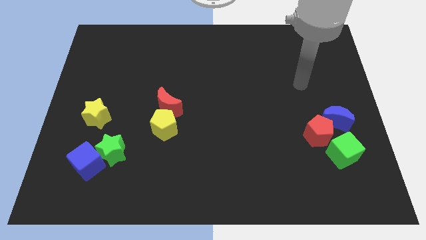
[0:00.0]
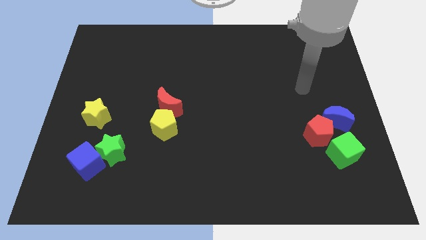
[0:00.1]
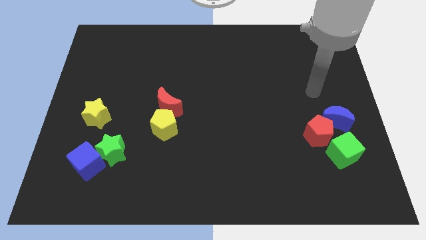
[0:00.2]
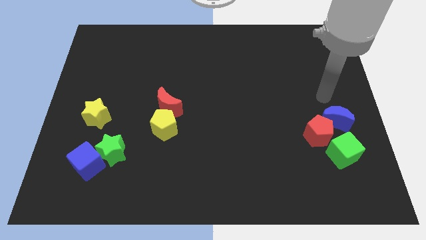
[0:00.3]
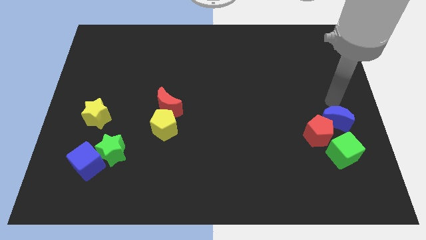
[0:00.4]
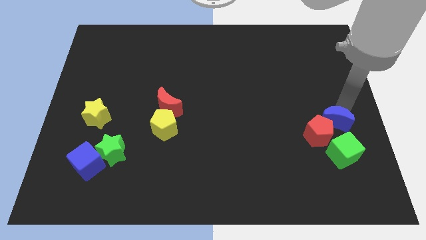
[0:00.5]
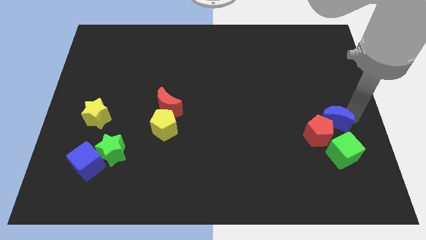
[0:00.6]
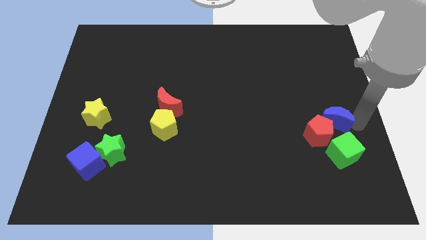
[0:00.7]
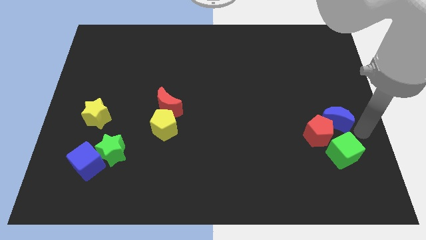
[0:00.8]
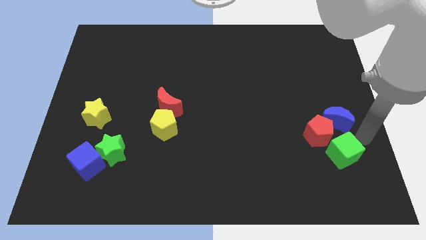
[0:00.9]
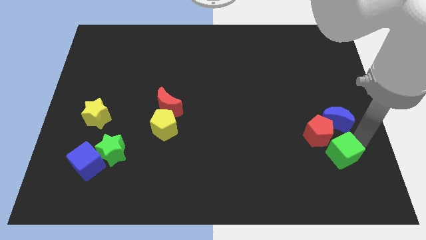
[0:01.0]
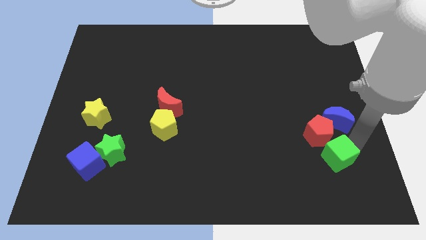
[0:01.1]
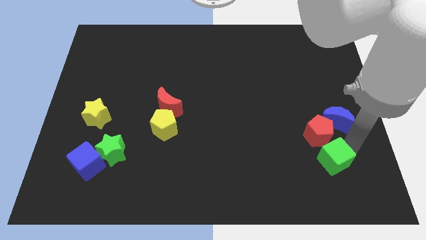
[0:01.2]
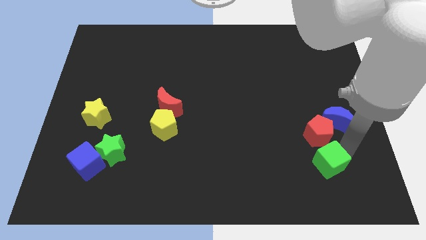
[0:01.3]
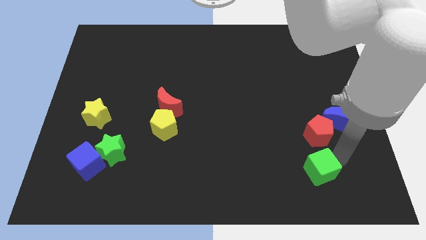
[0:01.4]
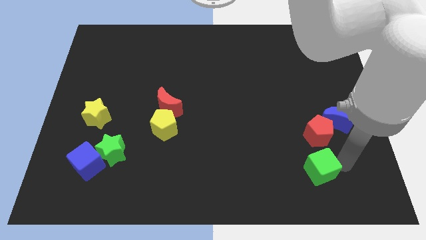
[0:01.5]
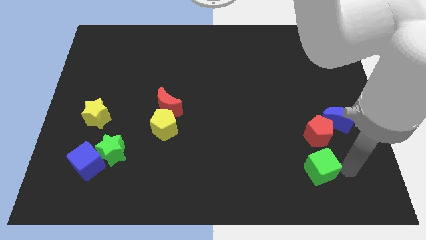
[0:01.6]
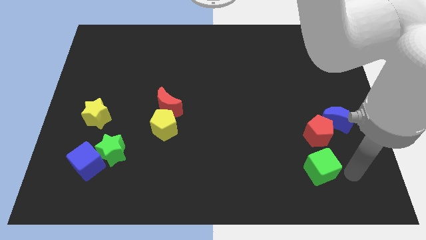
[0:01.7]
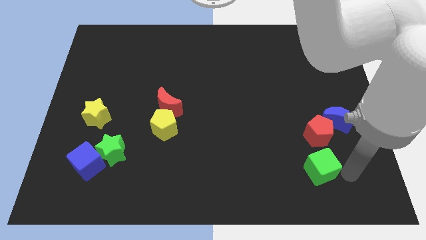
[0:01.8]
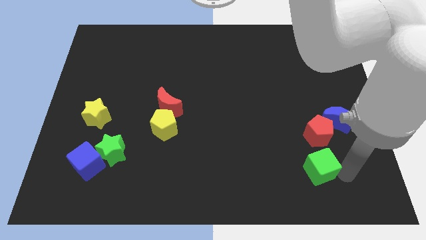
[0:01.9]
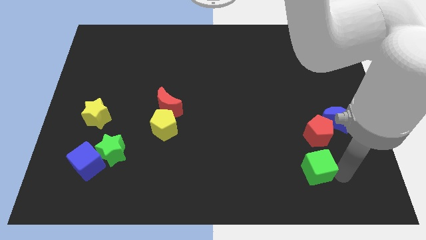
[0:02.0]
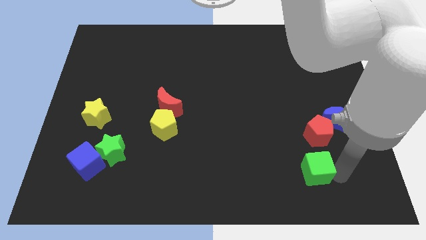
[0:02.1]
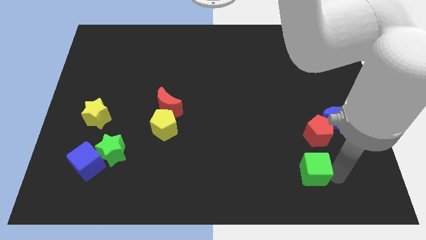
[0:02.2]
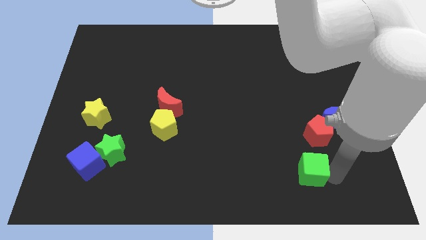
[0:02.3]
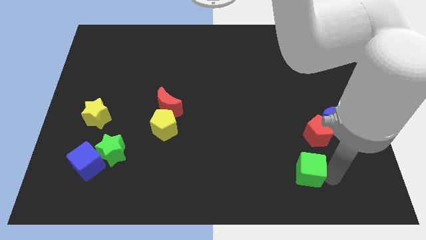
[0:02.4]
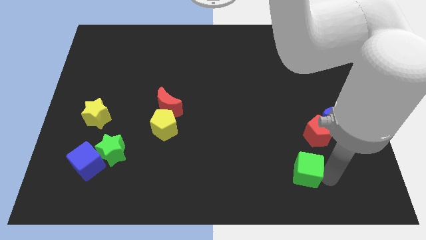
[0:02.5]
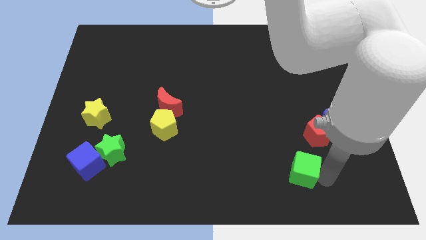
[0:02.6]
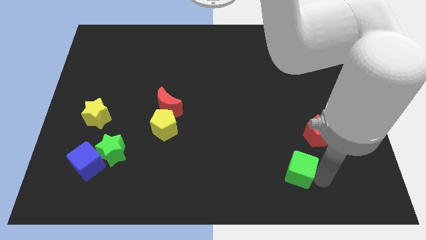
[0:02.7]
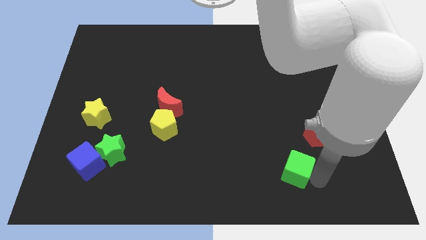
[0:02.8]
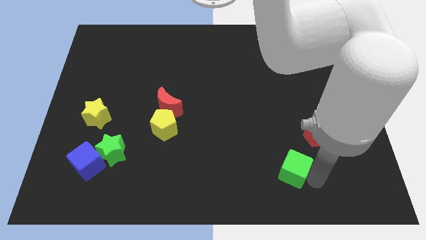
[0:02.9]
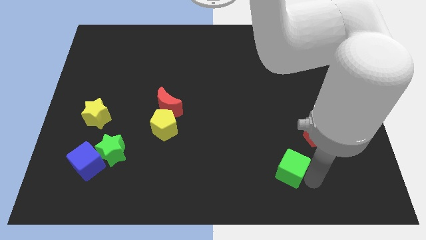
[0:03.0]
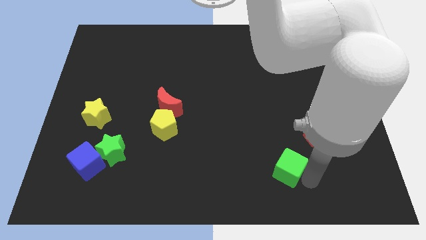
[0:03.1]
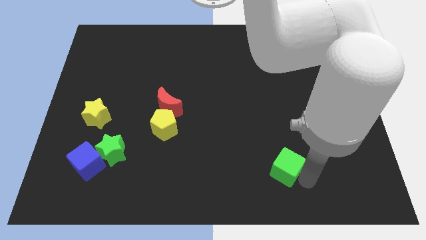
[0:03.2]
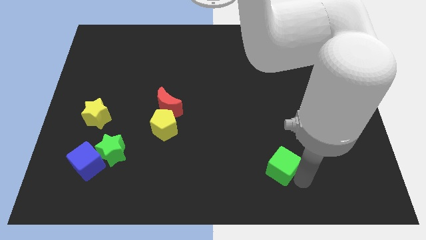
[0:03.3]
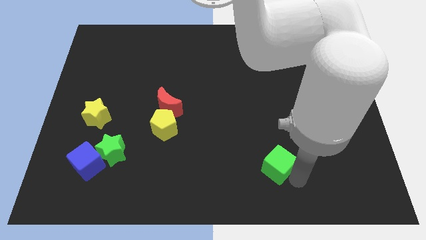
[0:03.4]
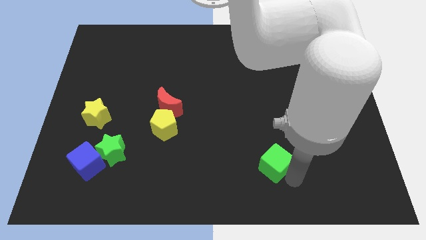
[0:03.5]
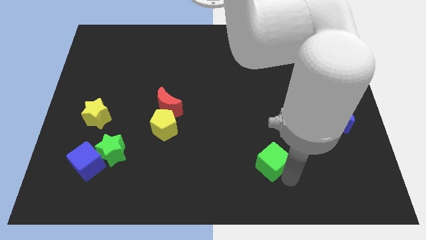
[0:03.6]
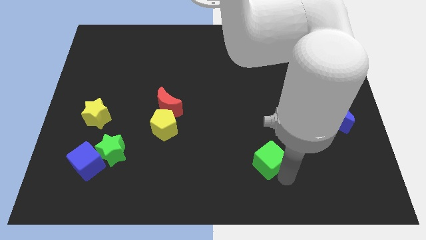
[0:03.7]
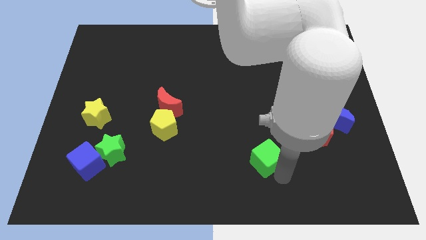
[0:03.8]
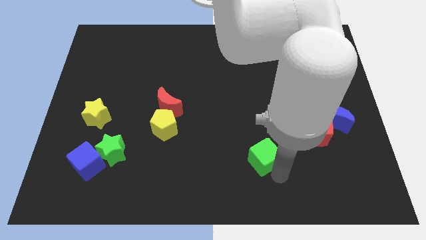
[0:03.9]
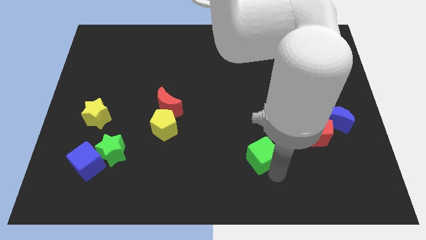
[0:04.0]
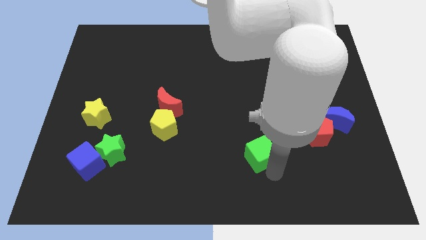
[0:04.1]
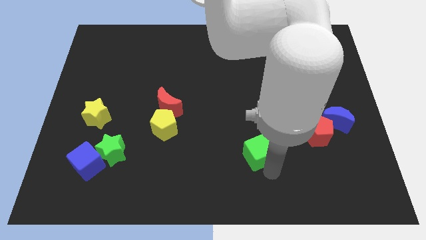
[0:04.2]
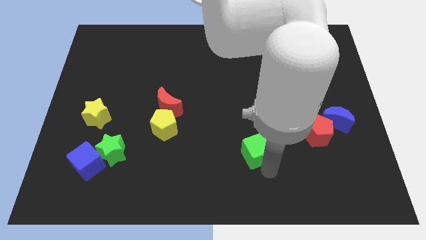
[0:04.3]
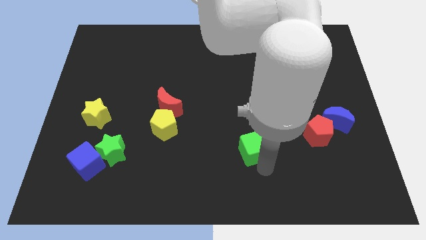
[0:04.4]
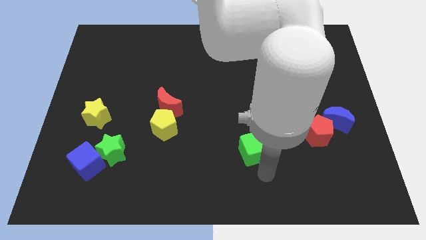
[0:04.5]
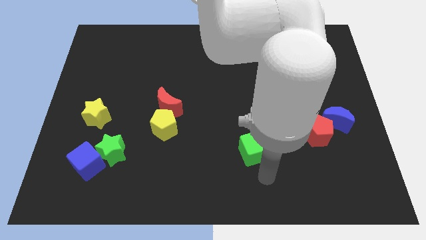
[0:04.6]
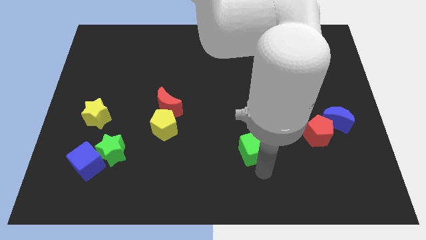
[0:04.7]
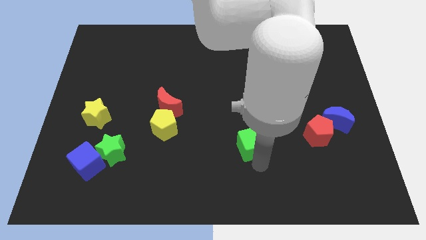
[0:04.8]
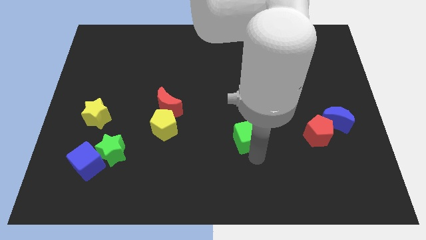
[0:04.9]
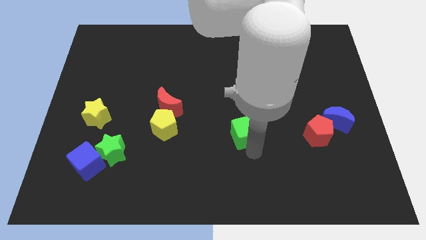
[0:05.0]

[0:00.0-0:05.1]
slide the green cube to the middle of the board

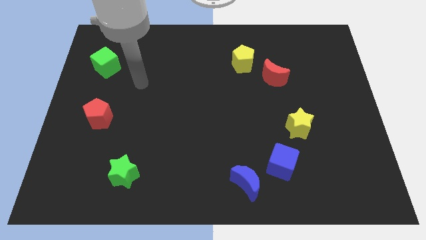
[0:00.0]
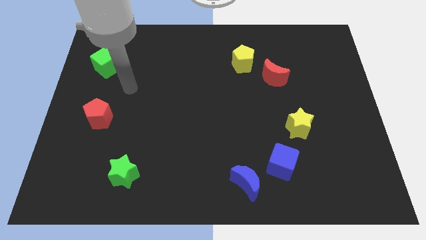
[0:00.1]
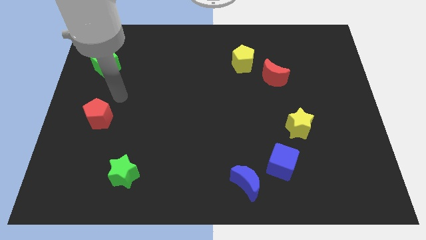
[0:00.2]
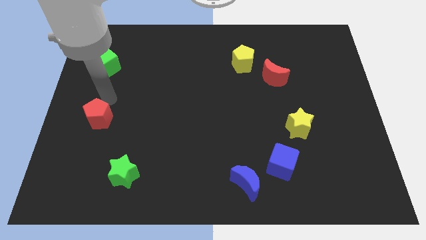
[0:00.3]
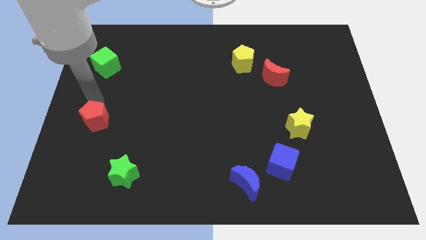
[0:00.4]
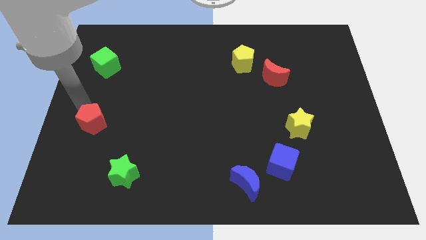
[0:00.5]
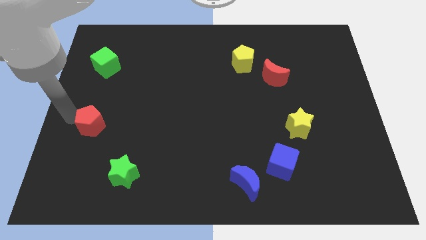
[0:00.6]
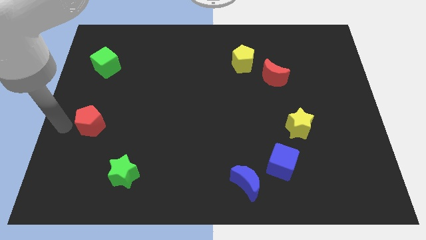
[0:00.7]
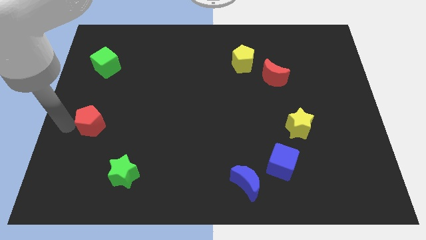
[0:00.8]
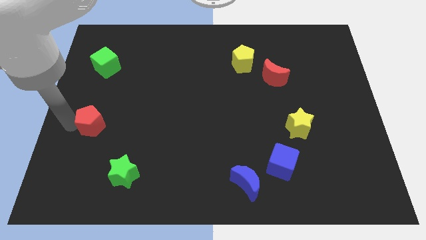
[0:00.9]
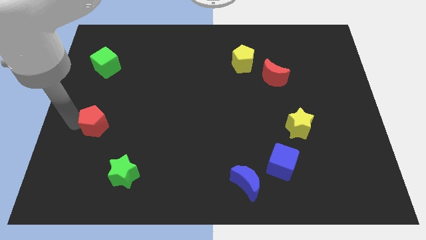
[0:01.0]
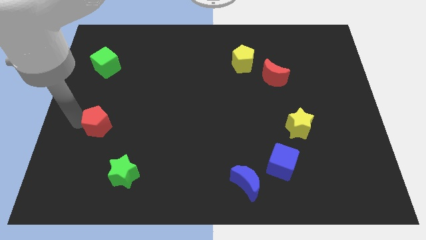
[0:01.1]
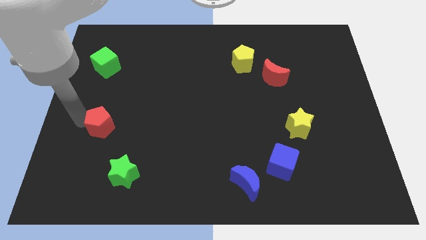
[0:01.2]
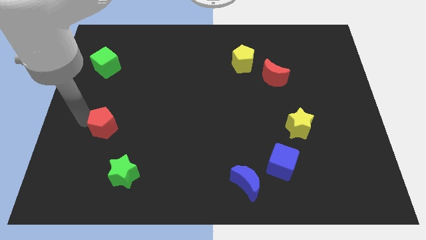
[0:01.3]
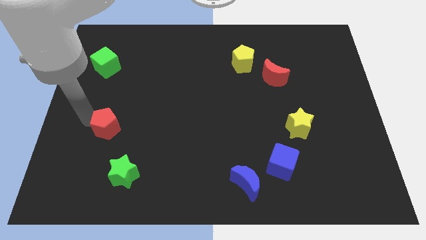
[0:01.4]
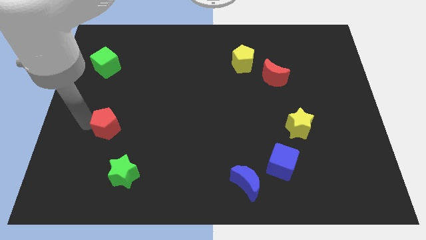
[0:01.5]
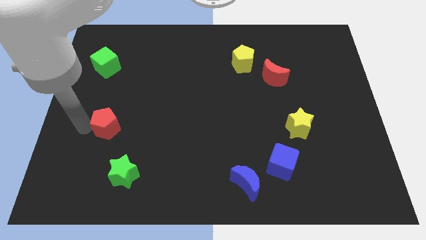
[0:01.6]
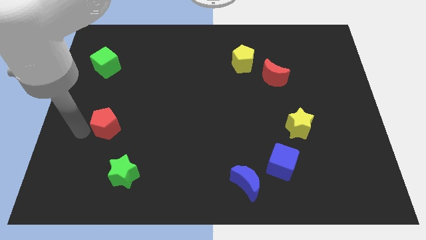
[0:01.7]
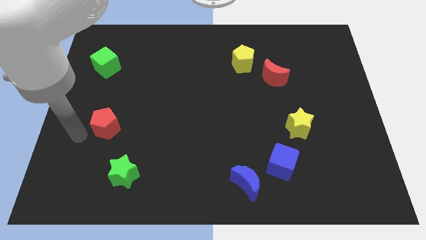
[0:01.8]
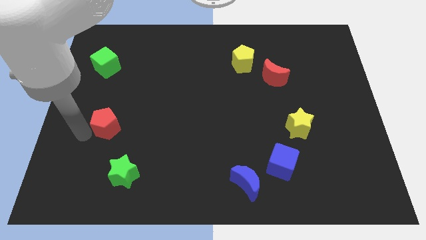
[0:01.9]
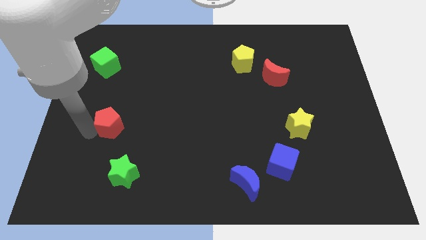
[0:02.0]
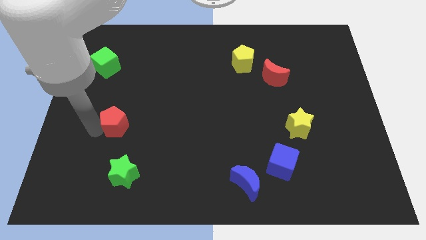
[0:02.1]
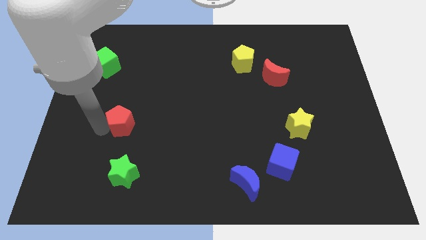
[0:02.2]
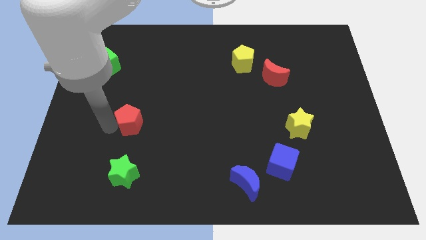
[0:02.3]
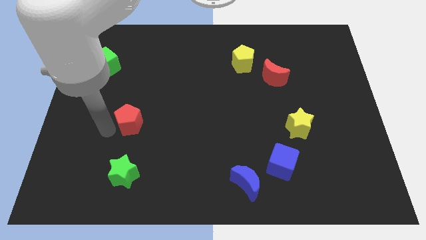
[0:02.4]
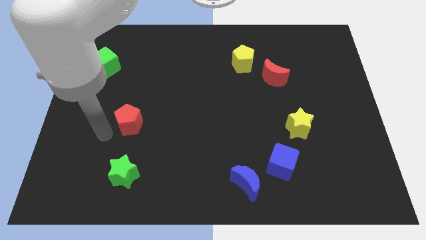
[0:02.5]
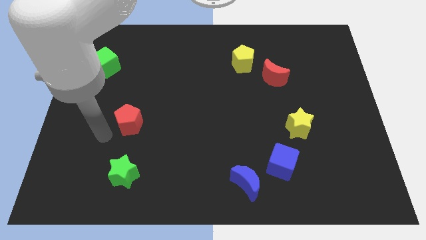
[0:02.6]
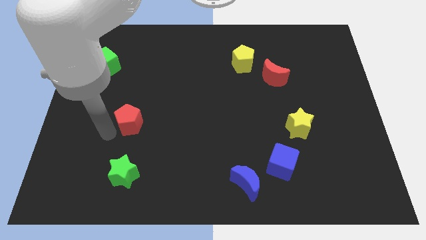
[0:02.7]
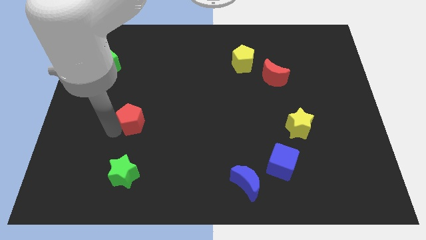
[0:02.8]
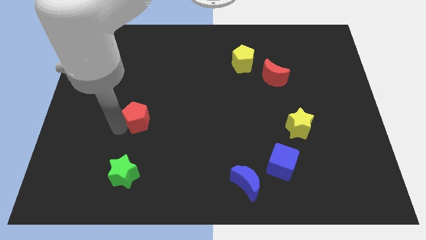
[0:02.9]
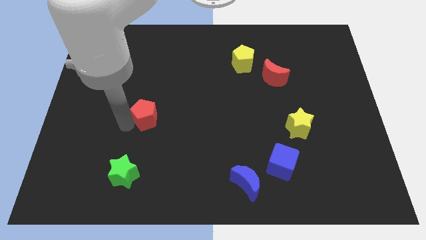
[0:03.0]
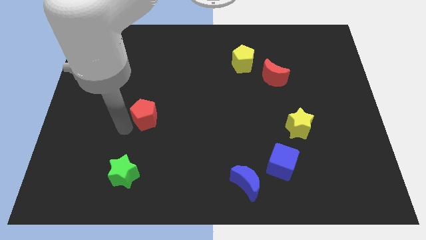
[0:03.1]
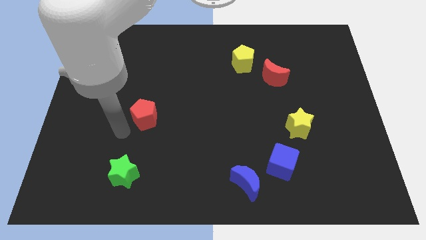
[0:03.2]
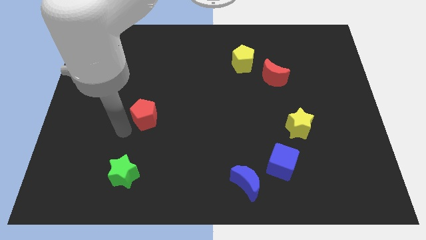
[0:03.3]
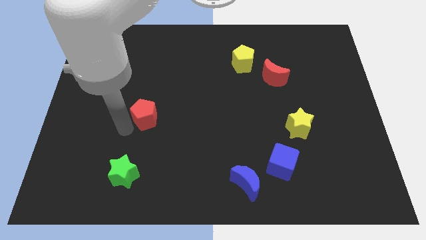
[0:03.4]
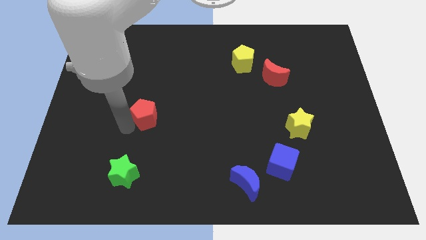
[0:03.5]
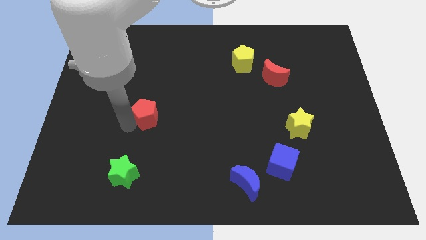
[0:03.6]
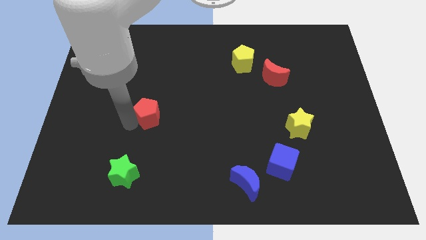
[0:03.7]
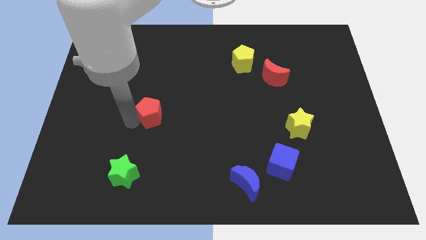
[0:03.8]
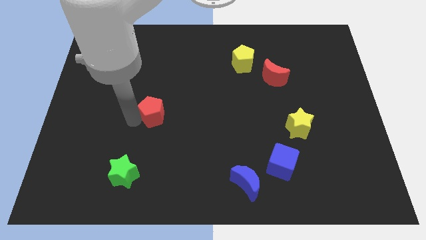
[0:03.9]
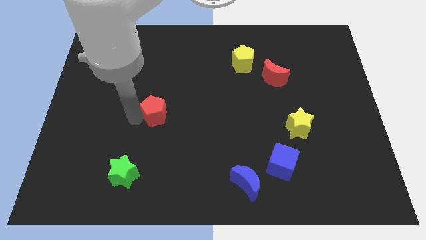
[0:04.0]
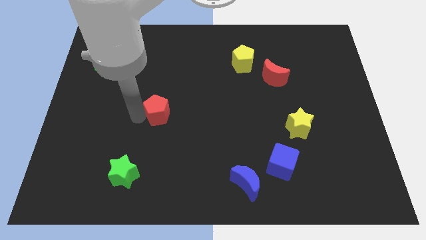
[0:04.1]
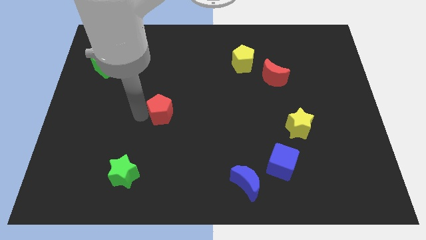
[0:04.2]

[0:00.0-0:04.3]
put the red pentagon to the middle
